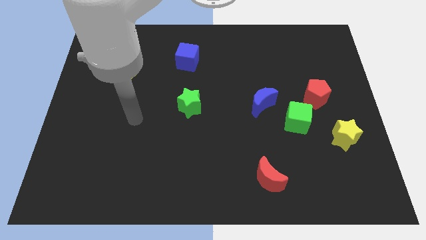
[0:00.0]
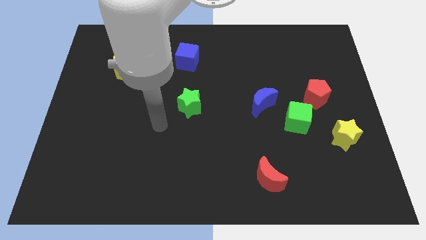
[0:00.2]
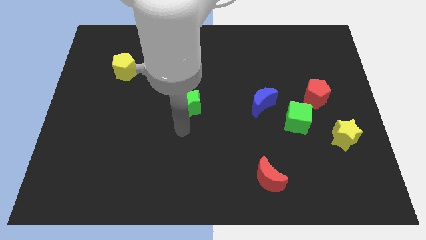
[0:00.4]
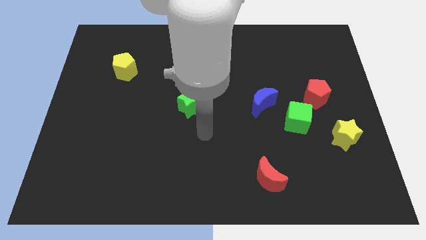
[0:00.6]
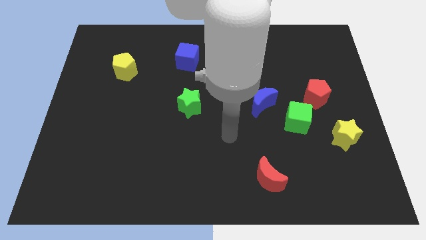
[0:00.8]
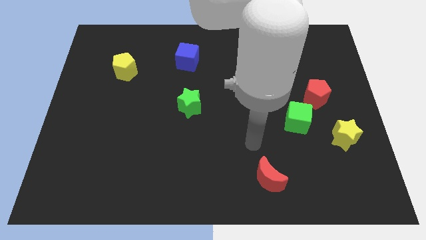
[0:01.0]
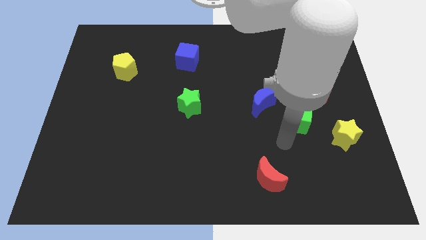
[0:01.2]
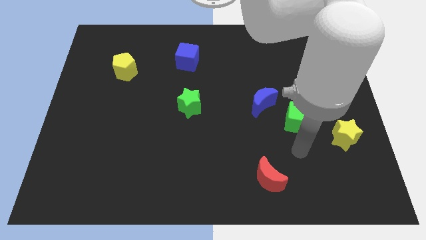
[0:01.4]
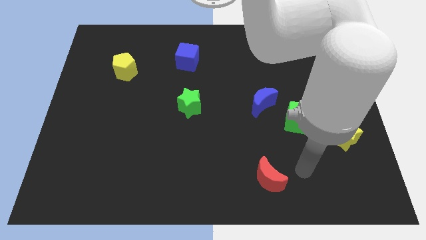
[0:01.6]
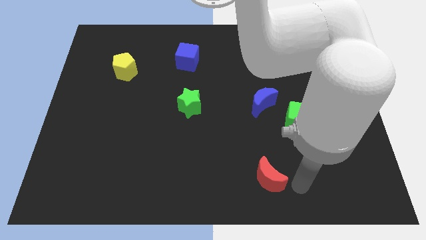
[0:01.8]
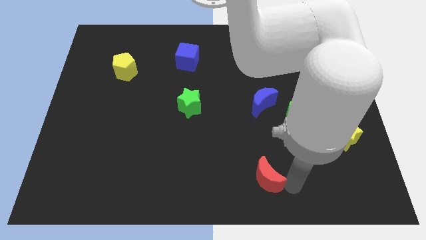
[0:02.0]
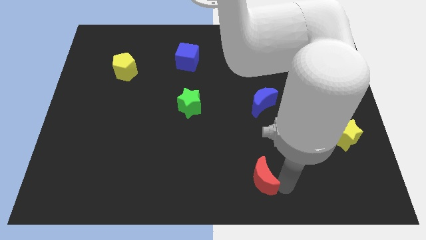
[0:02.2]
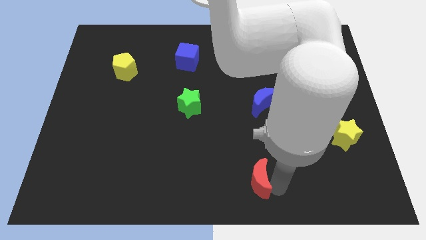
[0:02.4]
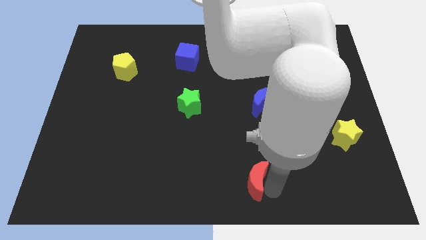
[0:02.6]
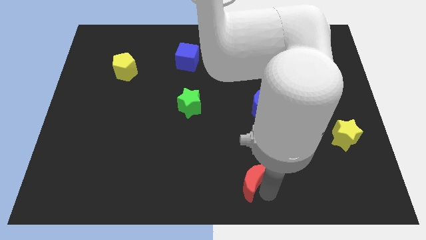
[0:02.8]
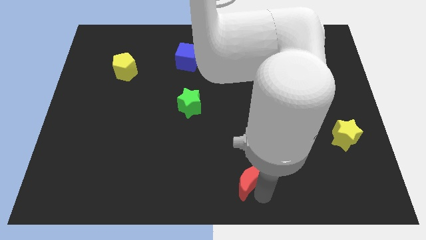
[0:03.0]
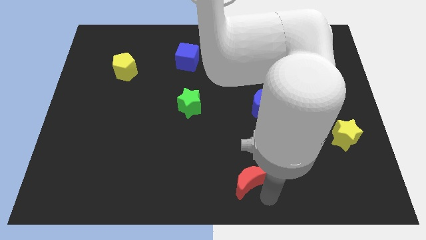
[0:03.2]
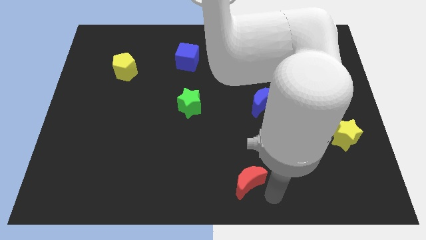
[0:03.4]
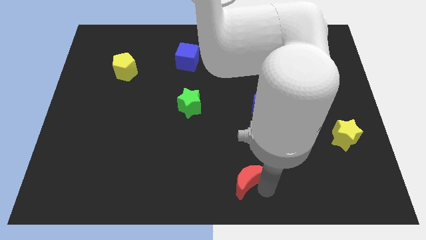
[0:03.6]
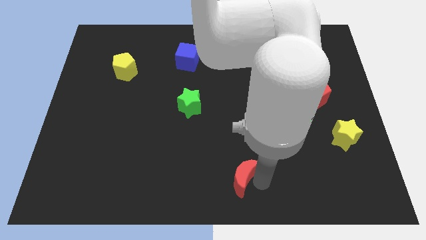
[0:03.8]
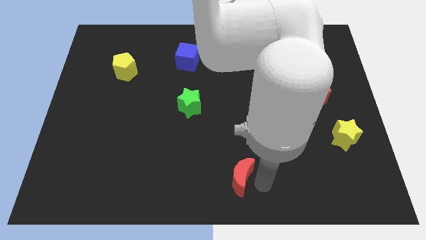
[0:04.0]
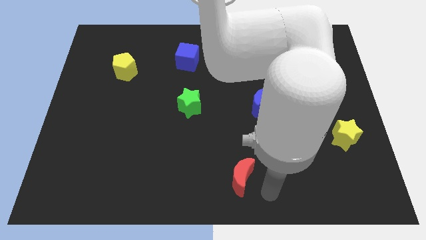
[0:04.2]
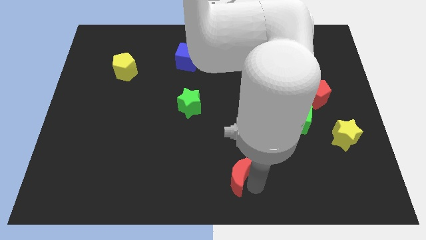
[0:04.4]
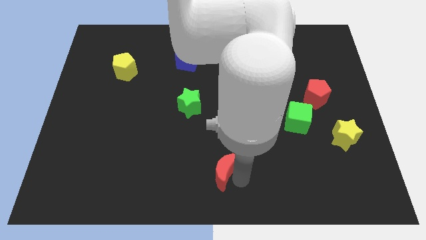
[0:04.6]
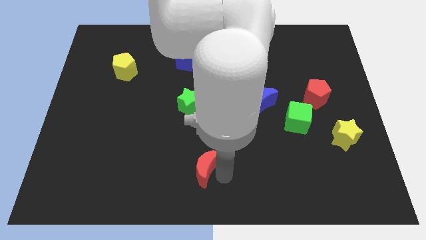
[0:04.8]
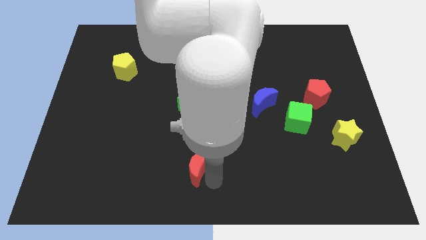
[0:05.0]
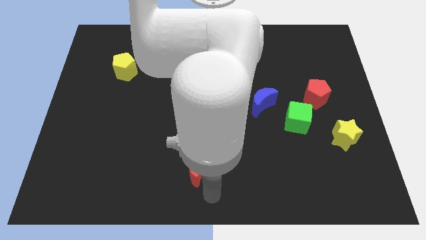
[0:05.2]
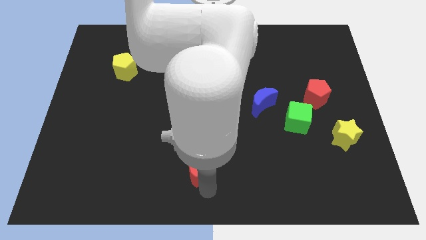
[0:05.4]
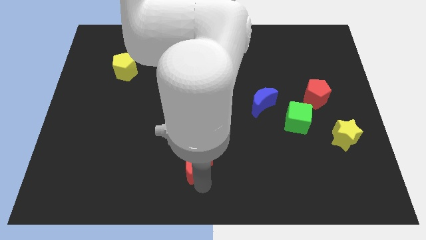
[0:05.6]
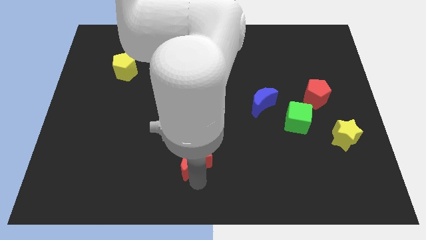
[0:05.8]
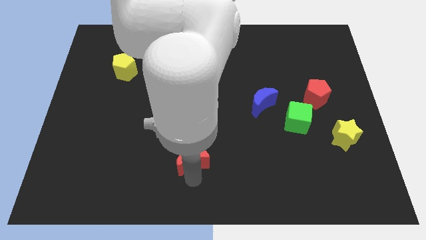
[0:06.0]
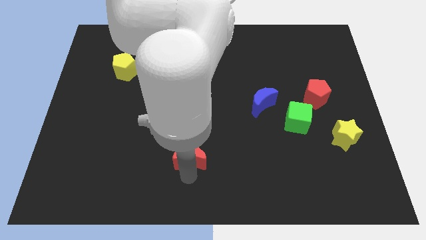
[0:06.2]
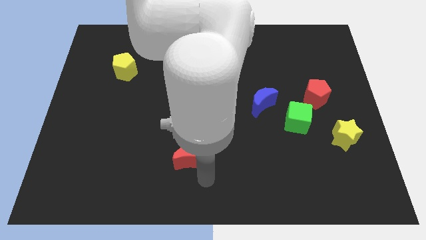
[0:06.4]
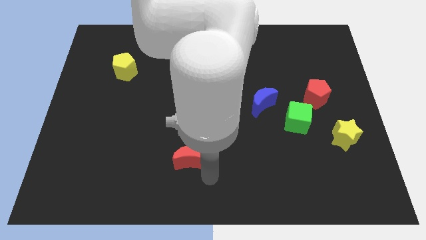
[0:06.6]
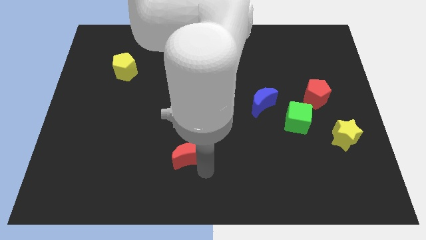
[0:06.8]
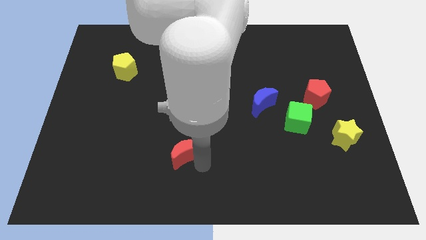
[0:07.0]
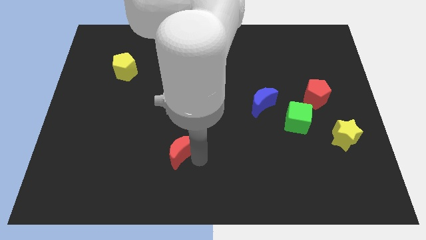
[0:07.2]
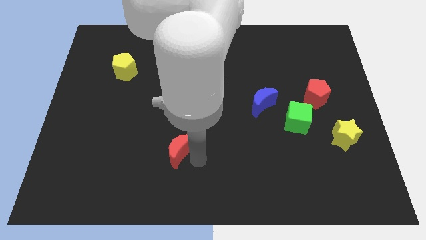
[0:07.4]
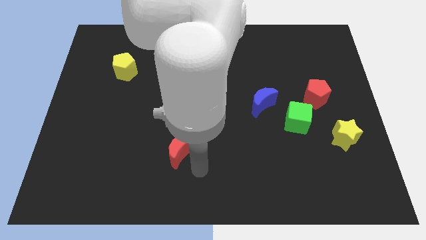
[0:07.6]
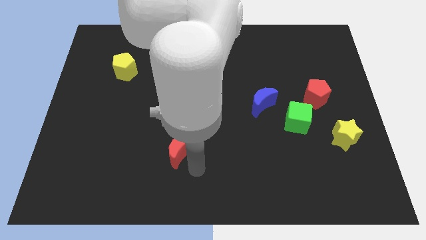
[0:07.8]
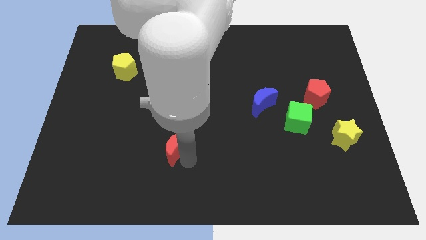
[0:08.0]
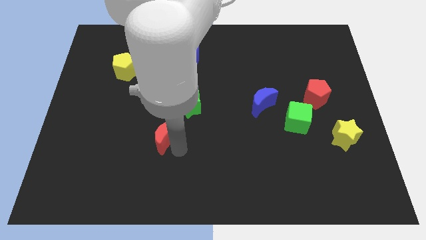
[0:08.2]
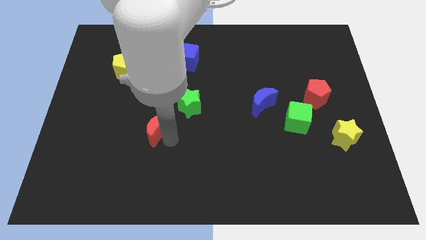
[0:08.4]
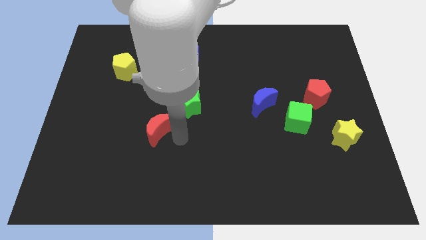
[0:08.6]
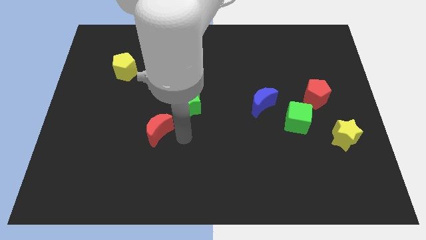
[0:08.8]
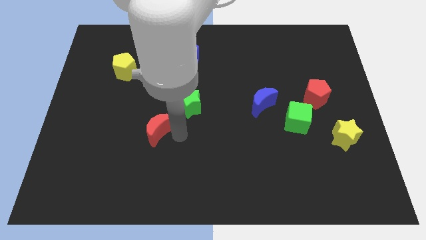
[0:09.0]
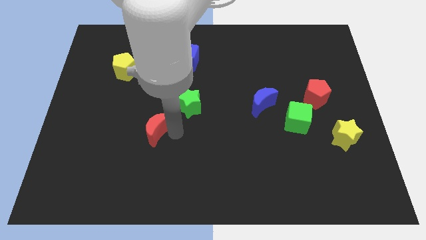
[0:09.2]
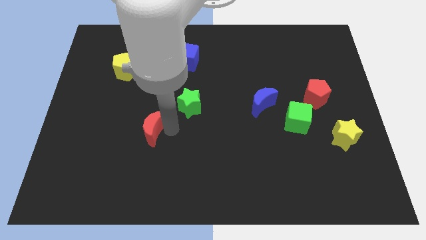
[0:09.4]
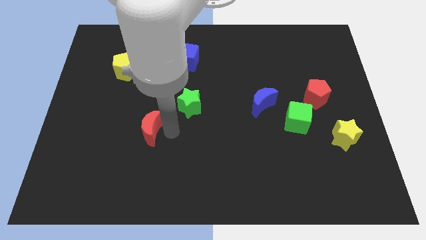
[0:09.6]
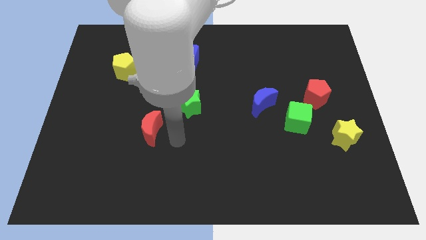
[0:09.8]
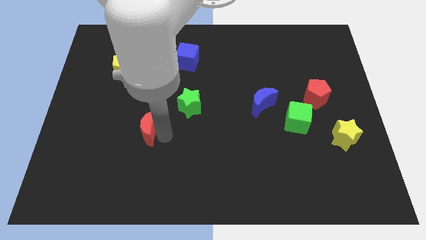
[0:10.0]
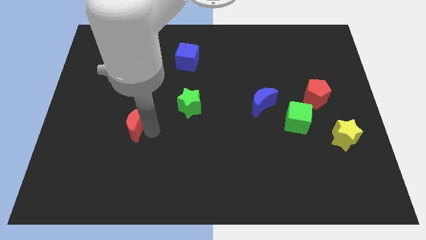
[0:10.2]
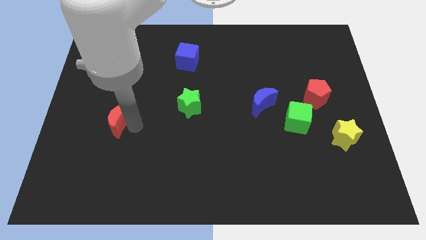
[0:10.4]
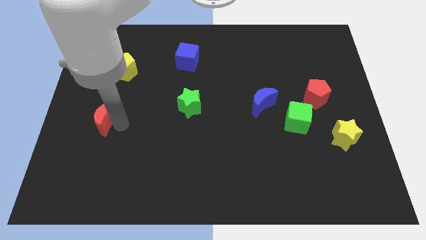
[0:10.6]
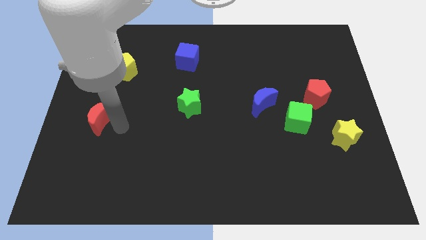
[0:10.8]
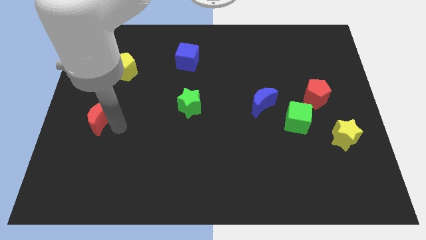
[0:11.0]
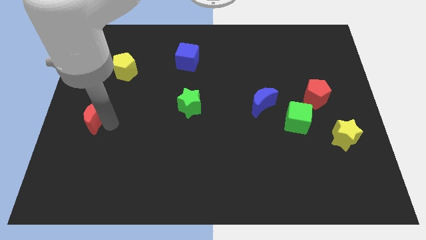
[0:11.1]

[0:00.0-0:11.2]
push the red moon to the left side

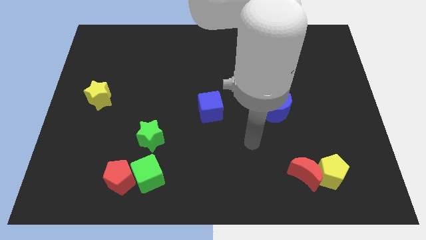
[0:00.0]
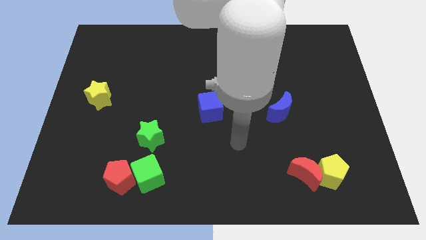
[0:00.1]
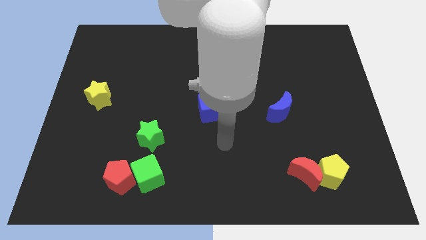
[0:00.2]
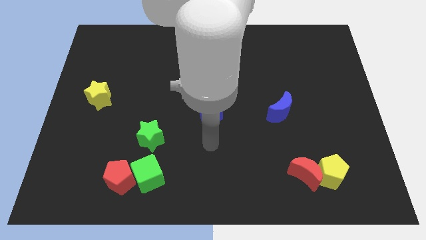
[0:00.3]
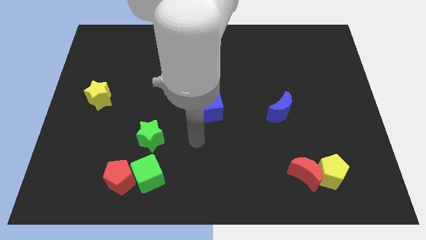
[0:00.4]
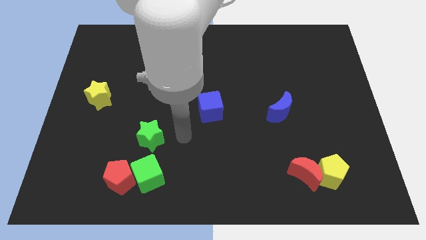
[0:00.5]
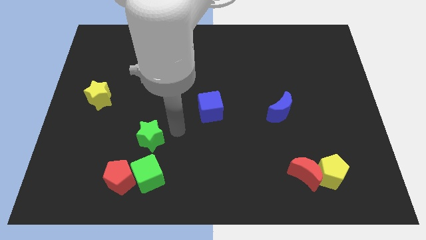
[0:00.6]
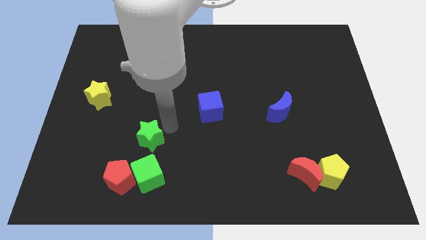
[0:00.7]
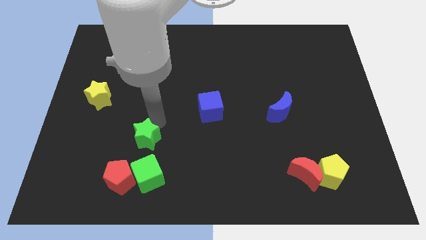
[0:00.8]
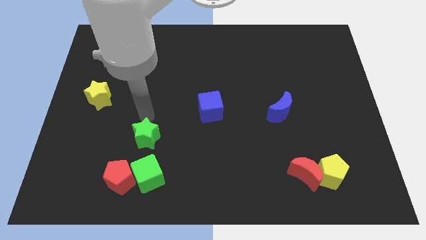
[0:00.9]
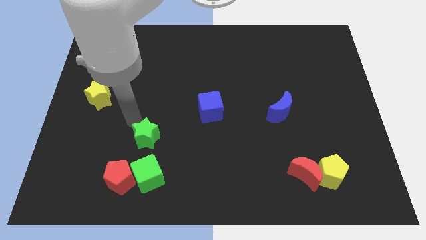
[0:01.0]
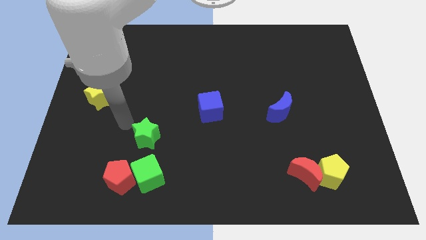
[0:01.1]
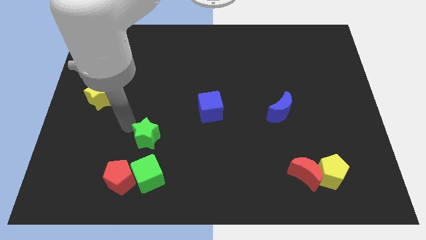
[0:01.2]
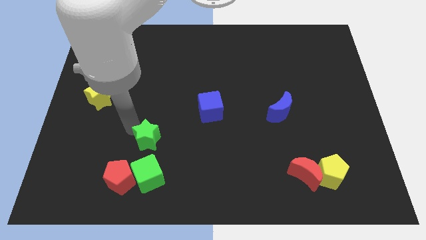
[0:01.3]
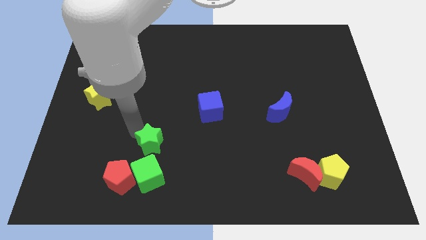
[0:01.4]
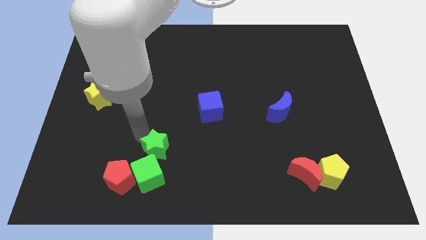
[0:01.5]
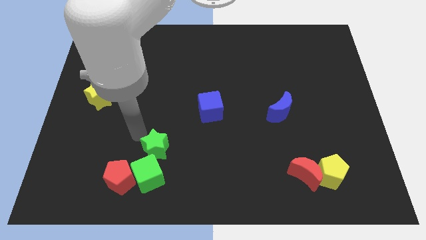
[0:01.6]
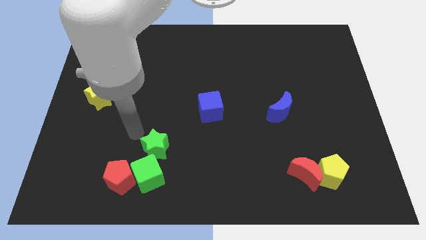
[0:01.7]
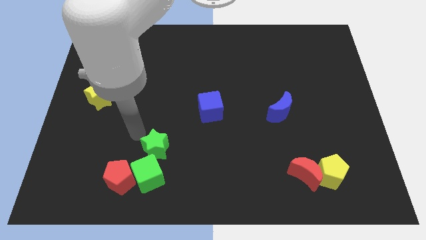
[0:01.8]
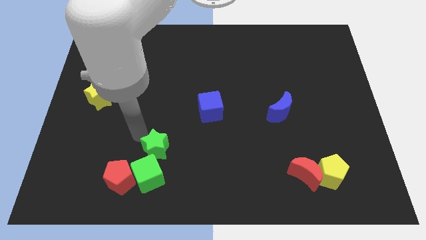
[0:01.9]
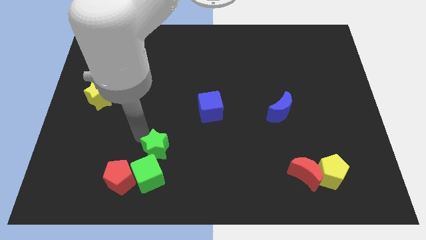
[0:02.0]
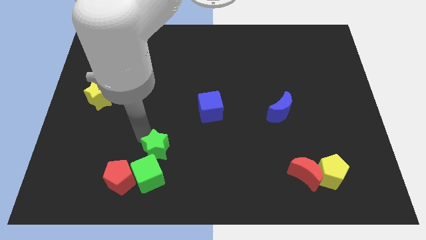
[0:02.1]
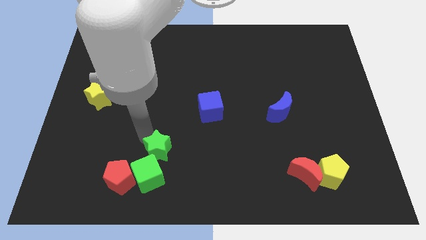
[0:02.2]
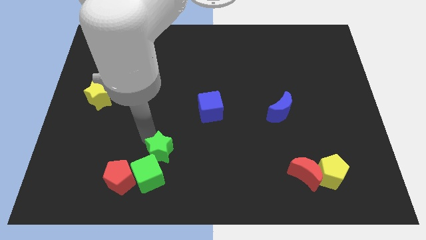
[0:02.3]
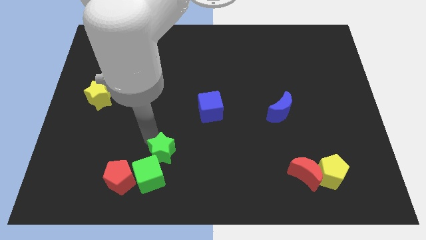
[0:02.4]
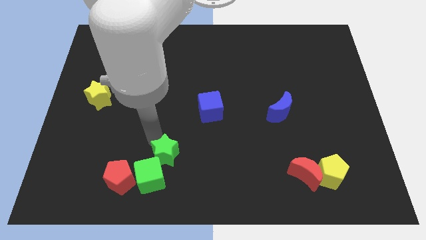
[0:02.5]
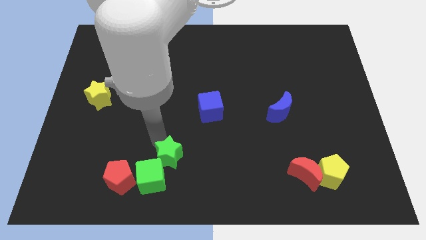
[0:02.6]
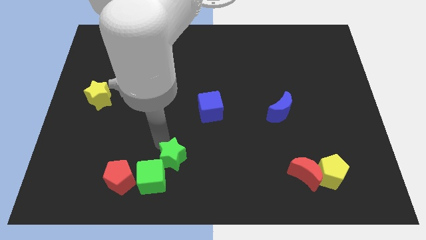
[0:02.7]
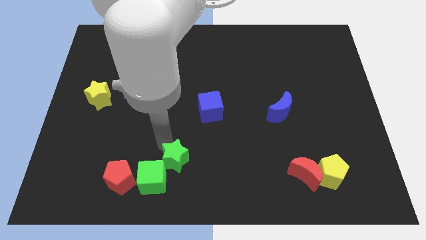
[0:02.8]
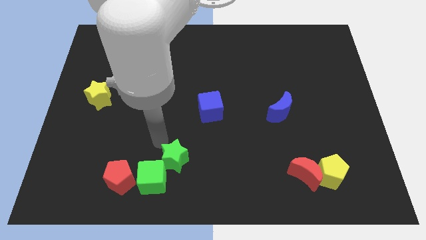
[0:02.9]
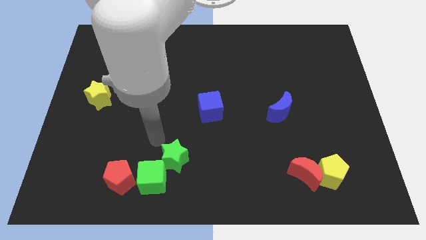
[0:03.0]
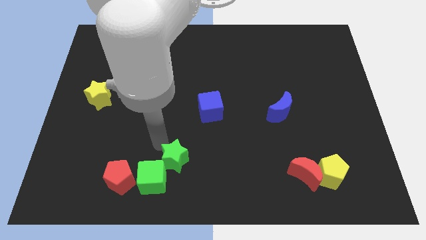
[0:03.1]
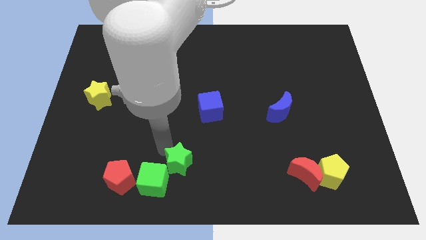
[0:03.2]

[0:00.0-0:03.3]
push the green star to the bottom side
